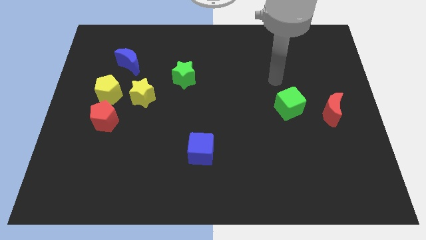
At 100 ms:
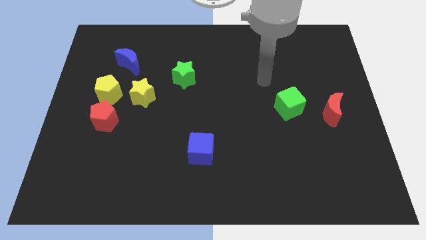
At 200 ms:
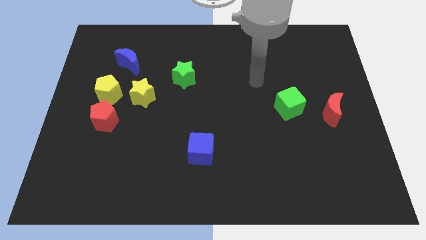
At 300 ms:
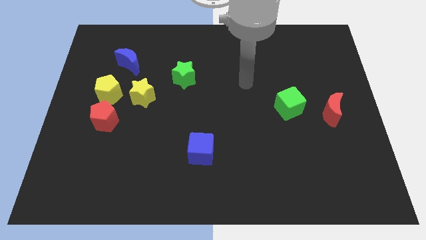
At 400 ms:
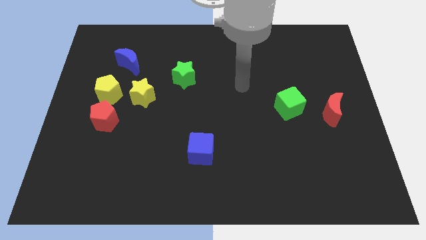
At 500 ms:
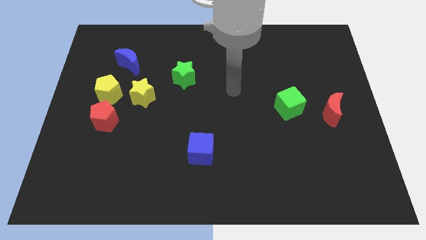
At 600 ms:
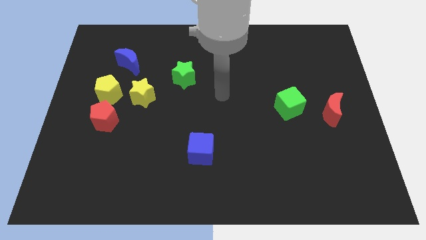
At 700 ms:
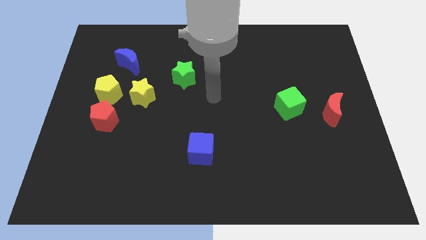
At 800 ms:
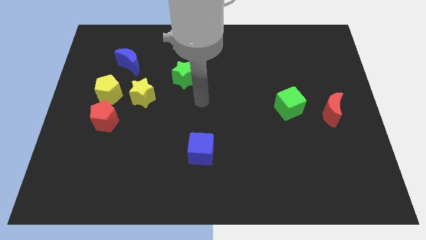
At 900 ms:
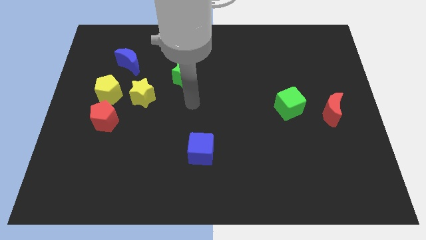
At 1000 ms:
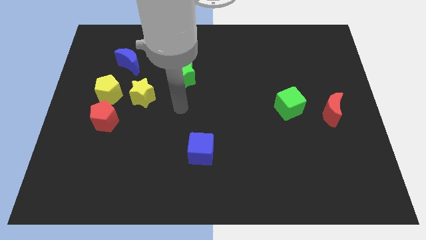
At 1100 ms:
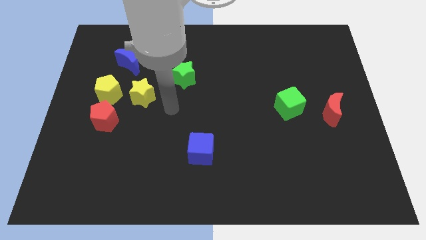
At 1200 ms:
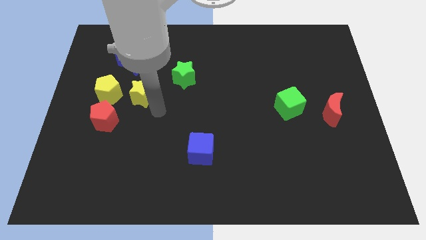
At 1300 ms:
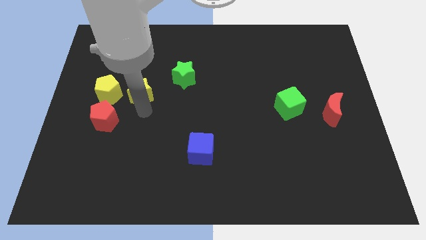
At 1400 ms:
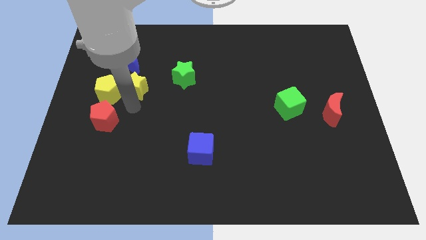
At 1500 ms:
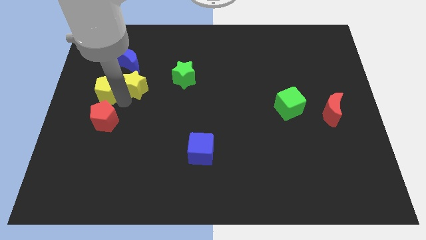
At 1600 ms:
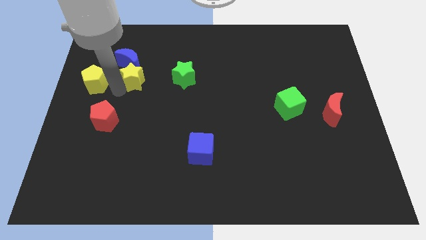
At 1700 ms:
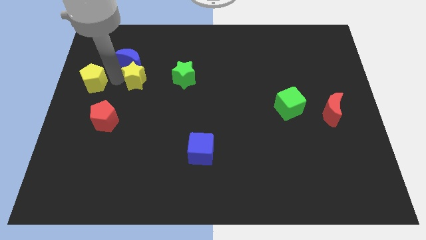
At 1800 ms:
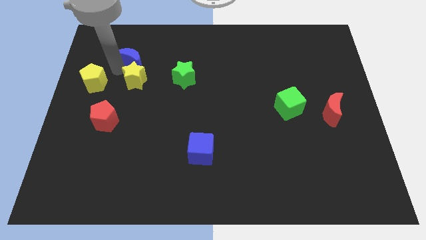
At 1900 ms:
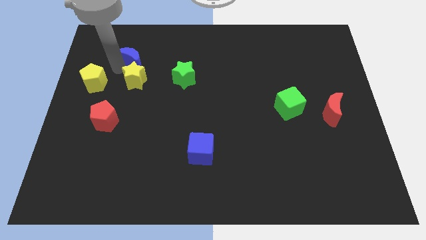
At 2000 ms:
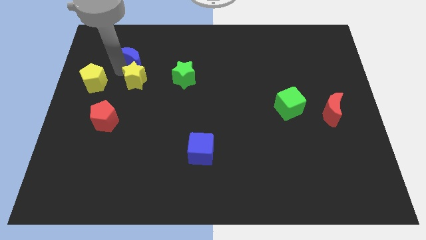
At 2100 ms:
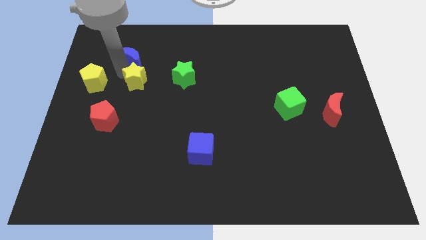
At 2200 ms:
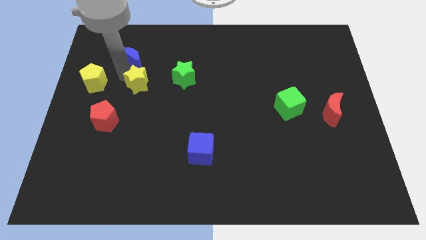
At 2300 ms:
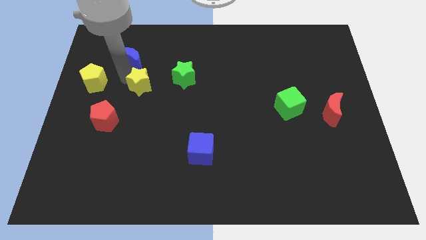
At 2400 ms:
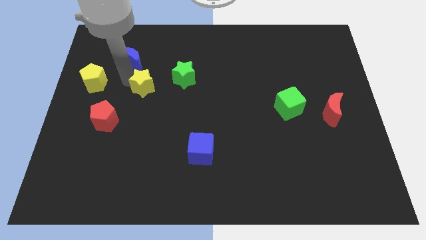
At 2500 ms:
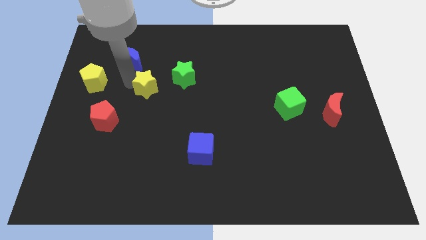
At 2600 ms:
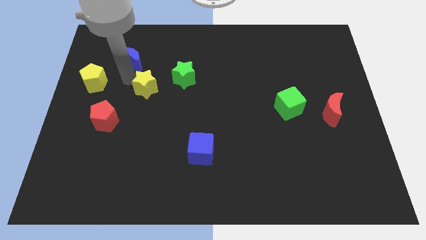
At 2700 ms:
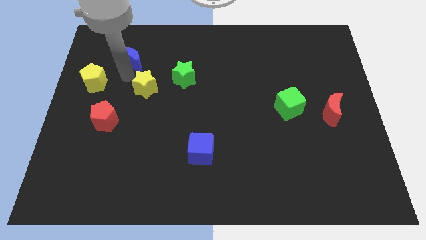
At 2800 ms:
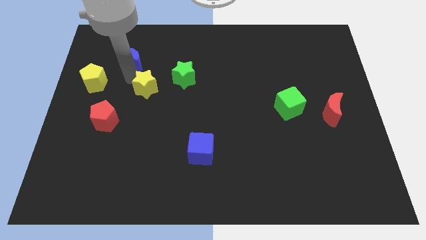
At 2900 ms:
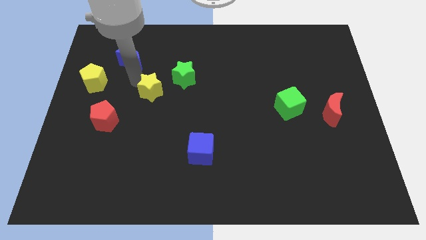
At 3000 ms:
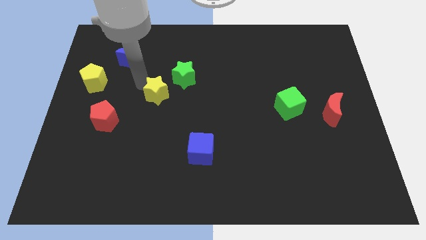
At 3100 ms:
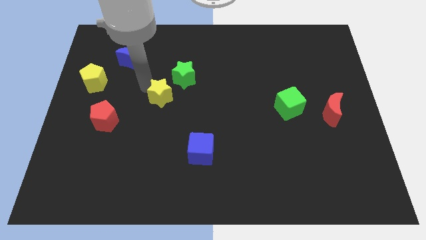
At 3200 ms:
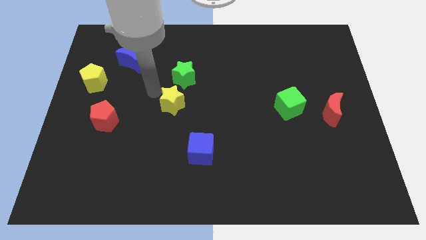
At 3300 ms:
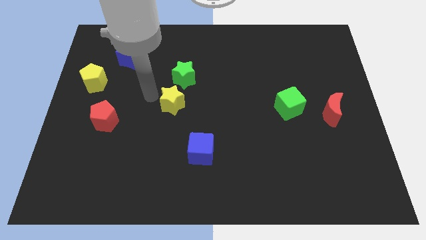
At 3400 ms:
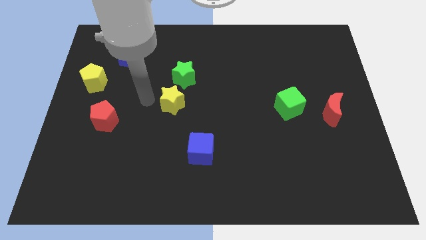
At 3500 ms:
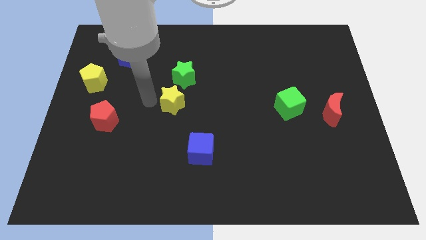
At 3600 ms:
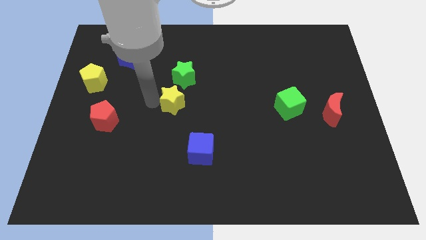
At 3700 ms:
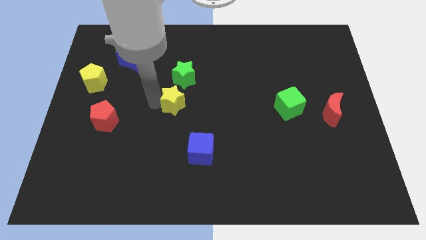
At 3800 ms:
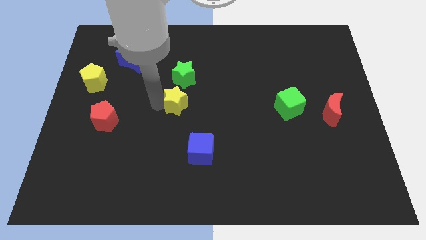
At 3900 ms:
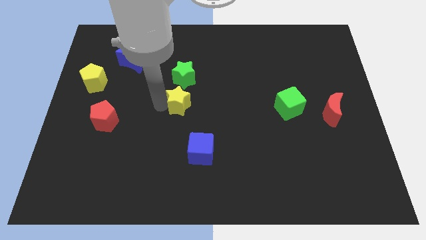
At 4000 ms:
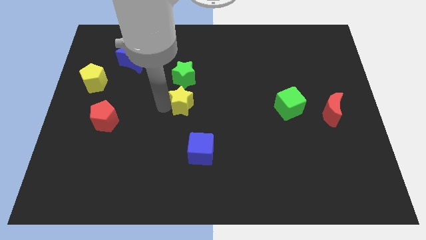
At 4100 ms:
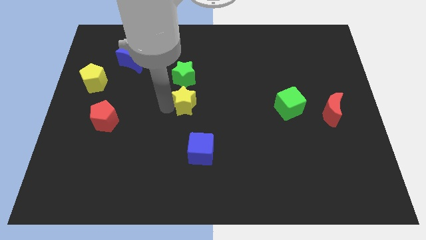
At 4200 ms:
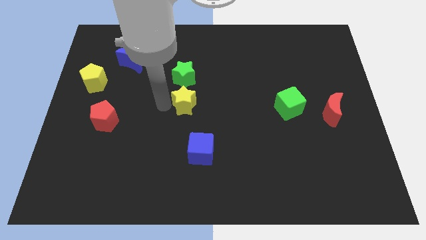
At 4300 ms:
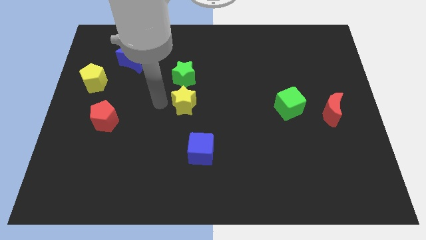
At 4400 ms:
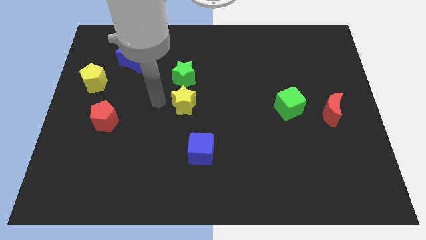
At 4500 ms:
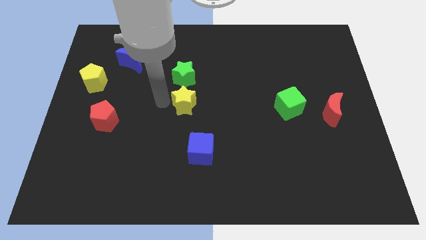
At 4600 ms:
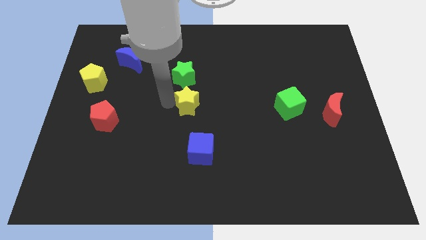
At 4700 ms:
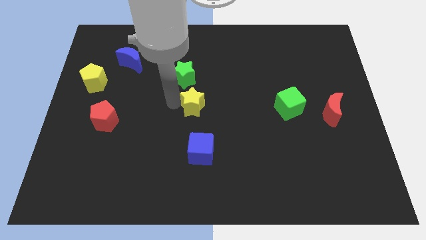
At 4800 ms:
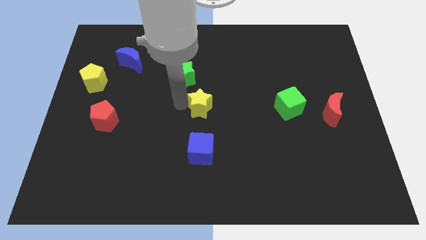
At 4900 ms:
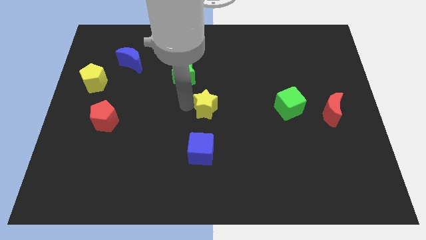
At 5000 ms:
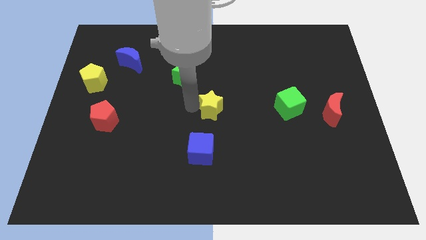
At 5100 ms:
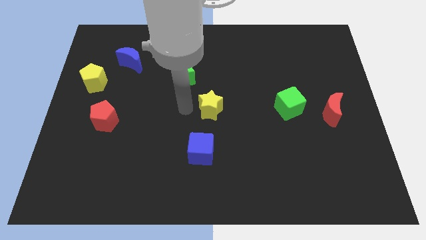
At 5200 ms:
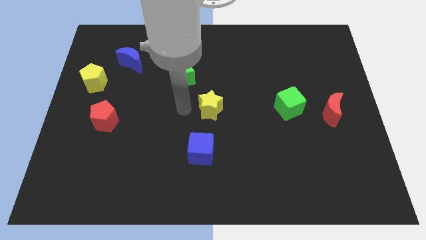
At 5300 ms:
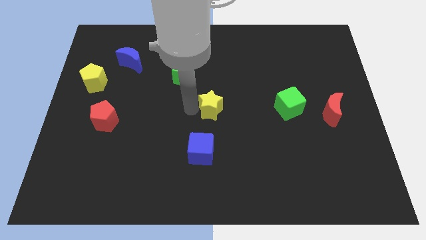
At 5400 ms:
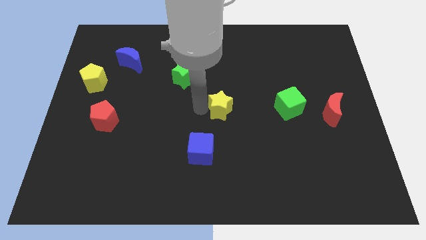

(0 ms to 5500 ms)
slide the yellow star just left of the green cube

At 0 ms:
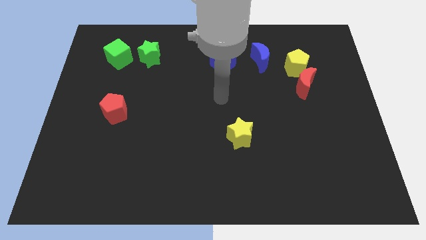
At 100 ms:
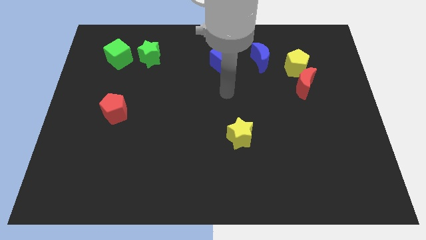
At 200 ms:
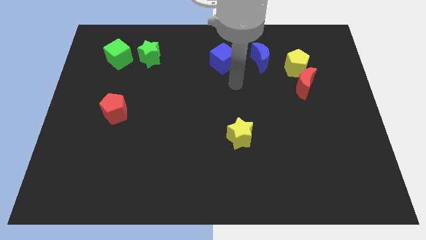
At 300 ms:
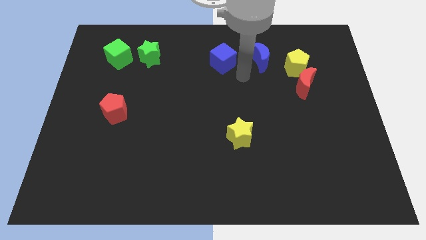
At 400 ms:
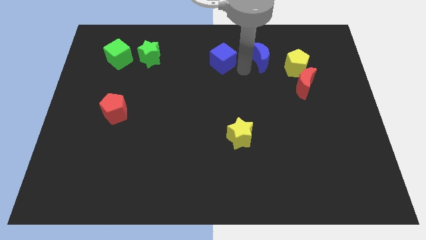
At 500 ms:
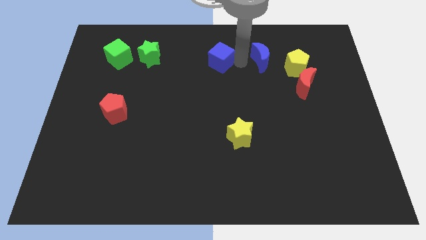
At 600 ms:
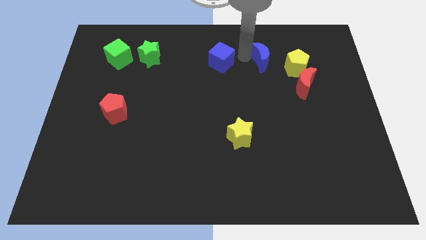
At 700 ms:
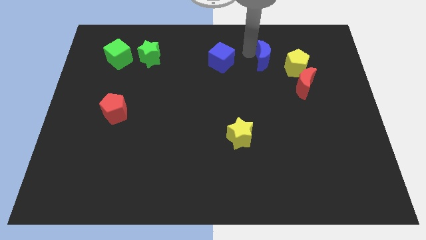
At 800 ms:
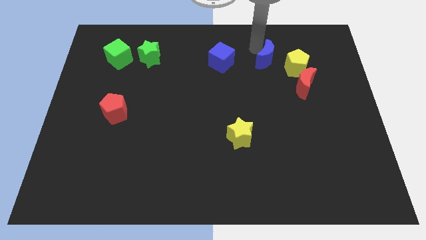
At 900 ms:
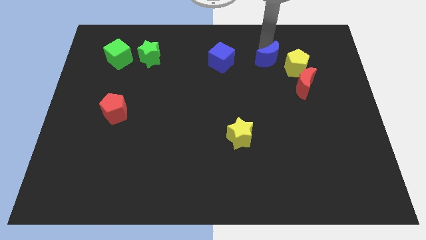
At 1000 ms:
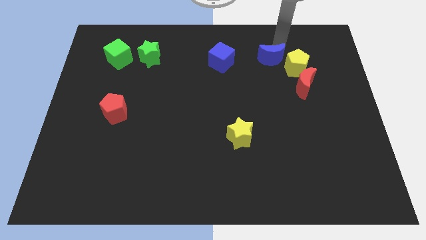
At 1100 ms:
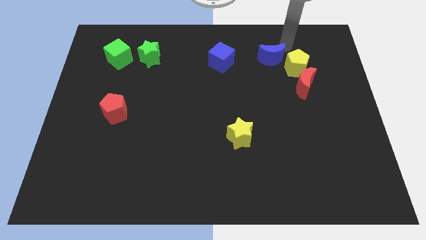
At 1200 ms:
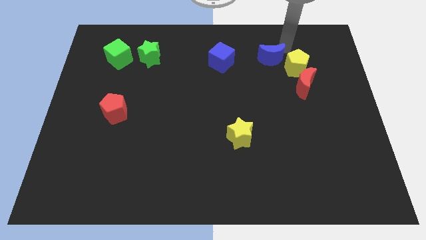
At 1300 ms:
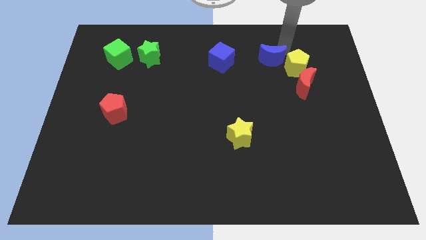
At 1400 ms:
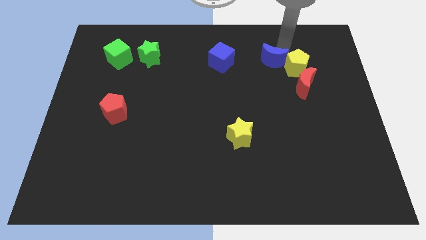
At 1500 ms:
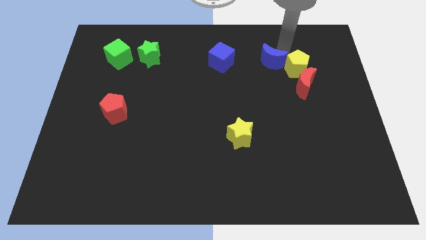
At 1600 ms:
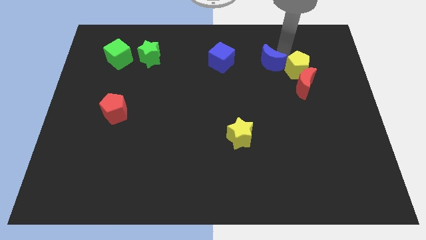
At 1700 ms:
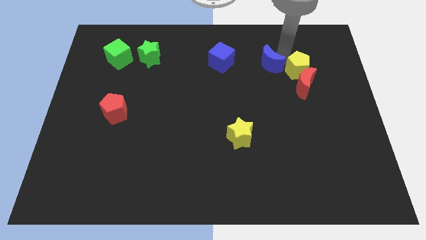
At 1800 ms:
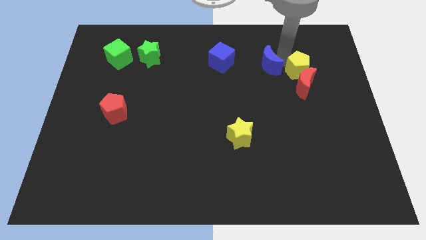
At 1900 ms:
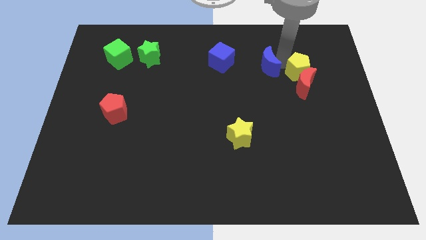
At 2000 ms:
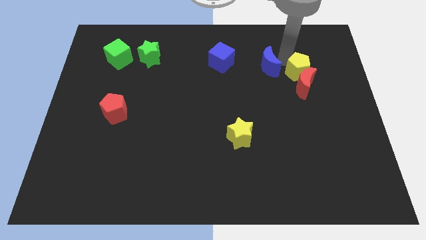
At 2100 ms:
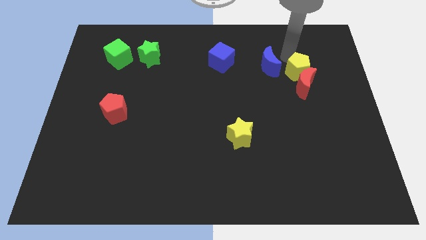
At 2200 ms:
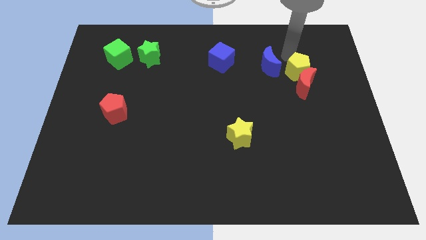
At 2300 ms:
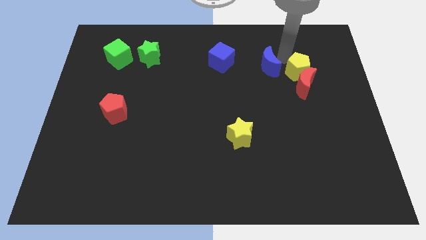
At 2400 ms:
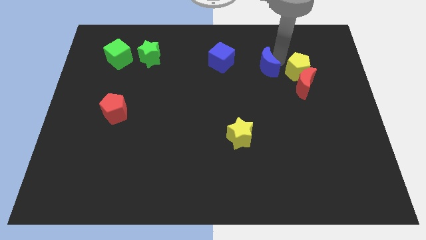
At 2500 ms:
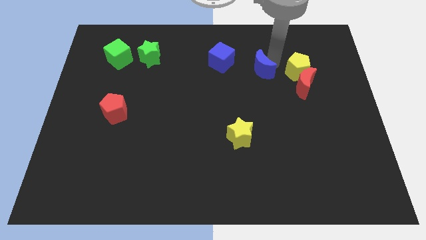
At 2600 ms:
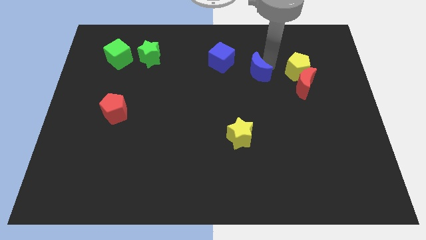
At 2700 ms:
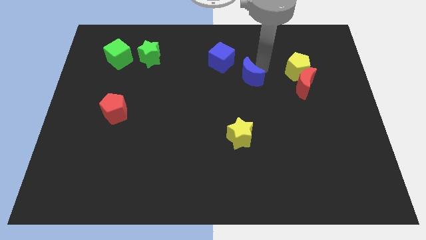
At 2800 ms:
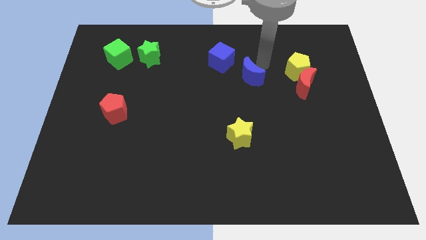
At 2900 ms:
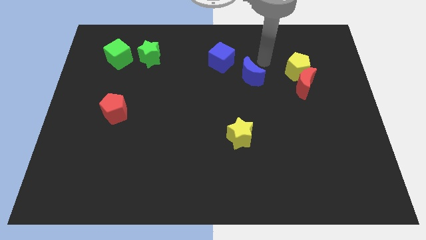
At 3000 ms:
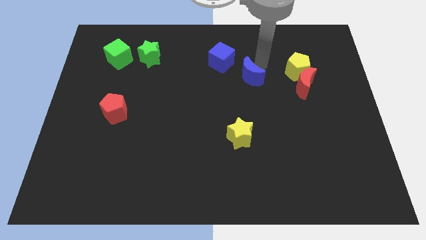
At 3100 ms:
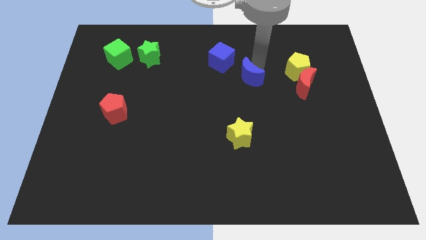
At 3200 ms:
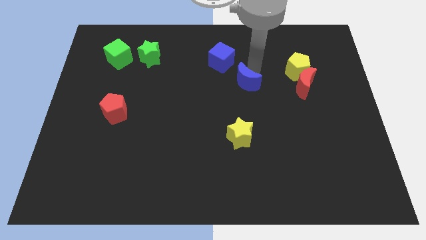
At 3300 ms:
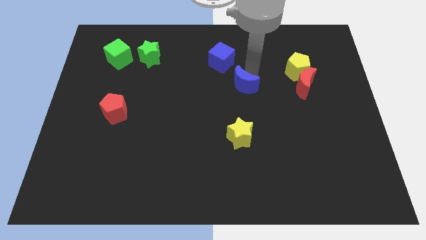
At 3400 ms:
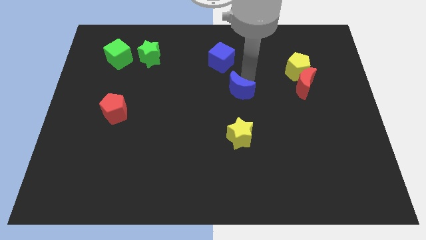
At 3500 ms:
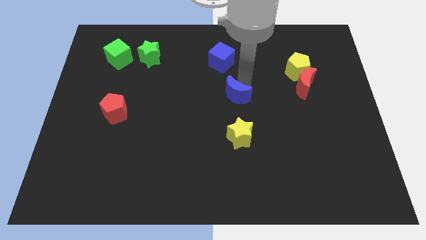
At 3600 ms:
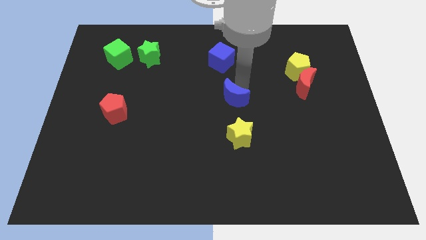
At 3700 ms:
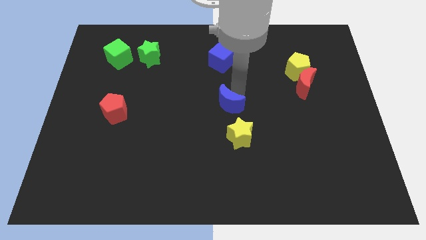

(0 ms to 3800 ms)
push the blue moon to the top left side of the yellow star
